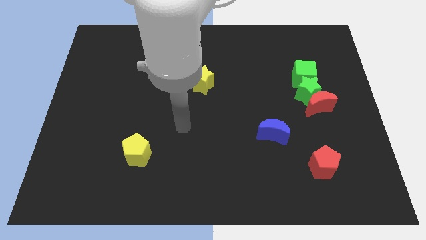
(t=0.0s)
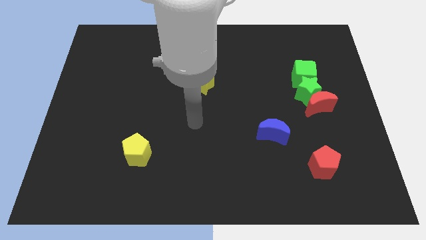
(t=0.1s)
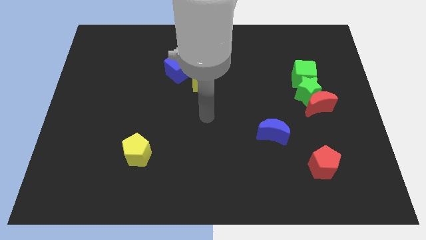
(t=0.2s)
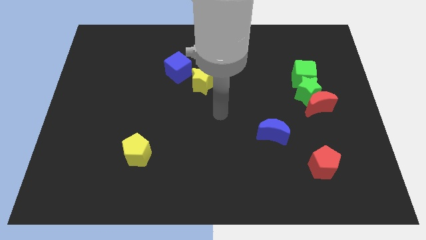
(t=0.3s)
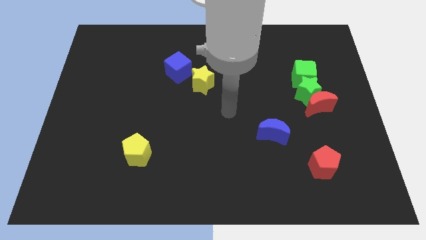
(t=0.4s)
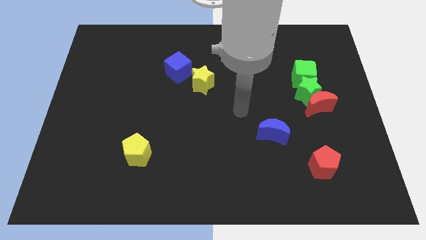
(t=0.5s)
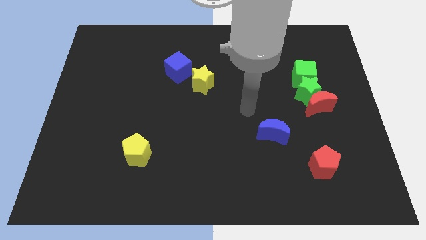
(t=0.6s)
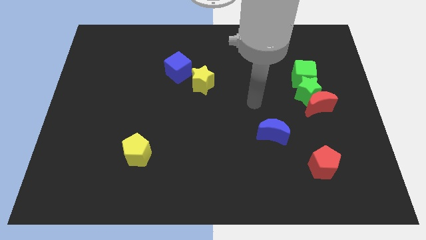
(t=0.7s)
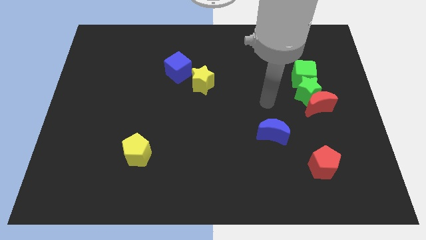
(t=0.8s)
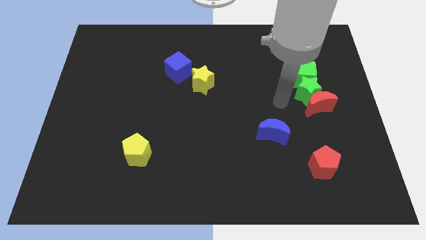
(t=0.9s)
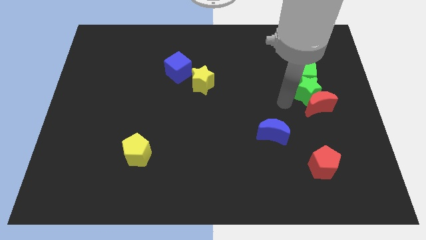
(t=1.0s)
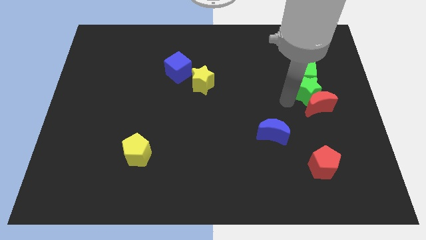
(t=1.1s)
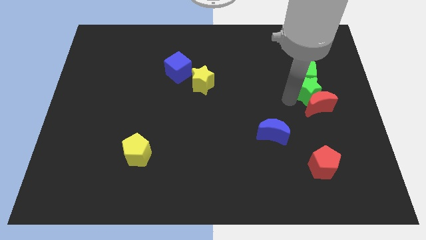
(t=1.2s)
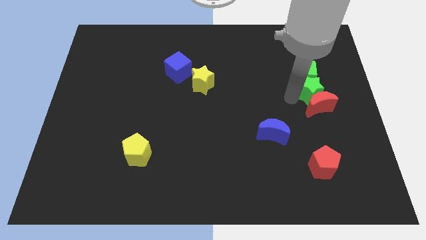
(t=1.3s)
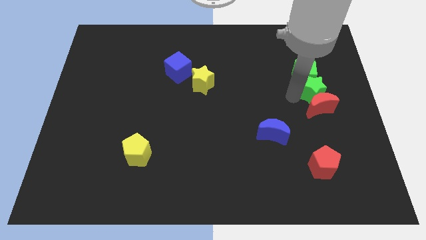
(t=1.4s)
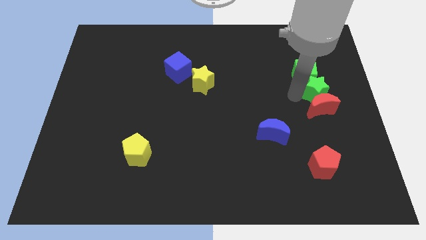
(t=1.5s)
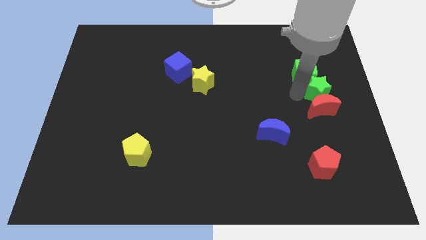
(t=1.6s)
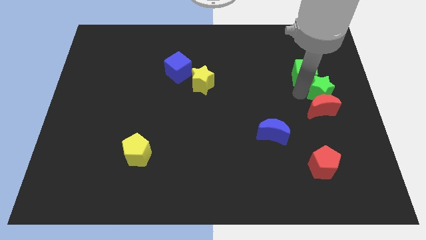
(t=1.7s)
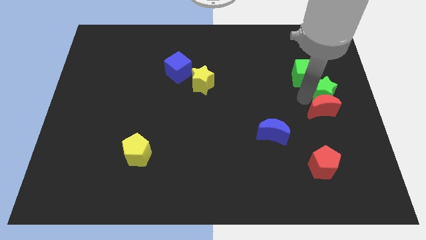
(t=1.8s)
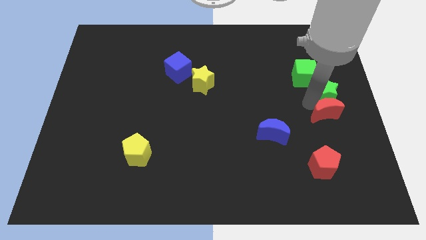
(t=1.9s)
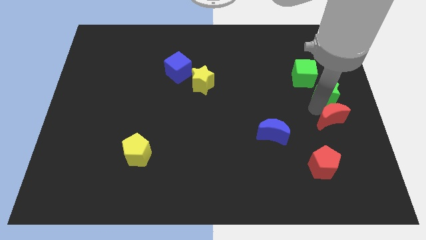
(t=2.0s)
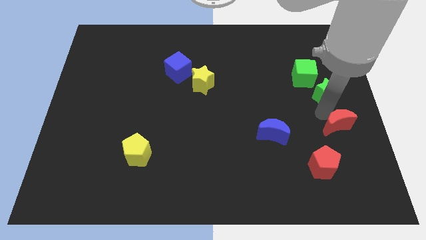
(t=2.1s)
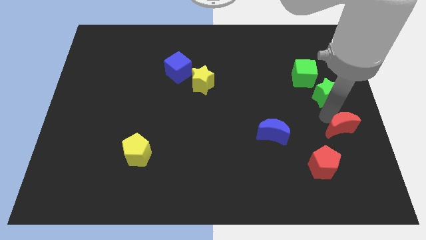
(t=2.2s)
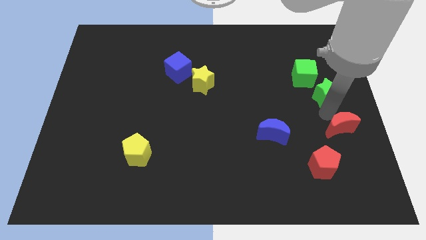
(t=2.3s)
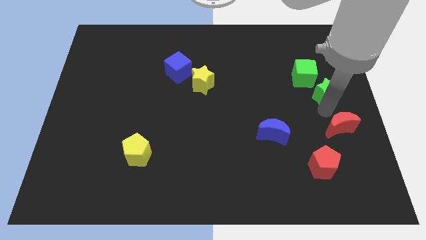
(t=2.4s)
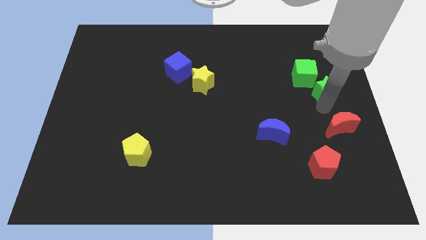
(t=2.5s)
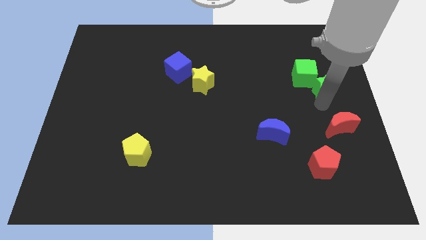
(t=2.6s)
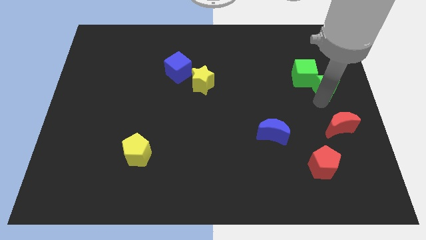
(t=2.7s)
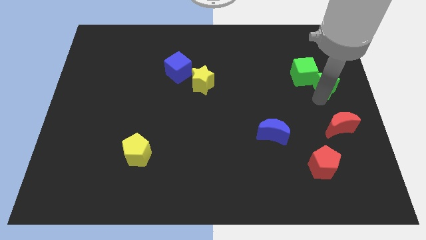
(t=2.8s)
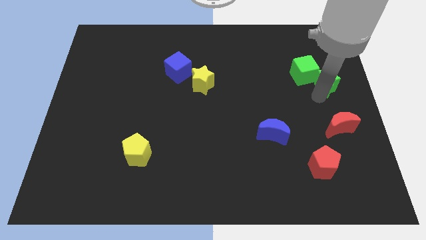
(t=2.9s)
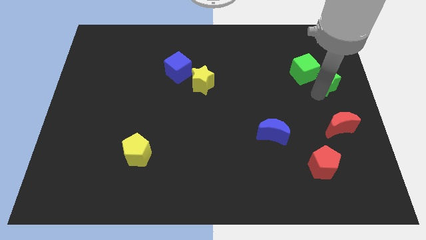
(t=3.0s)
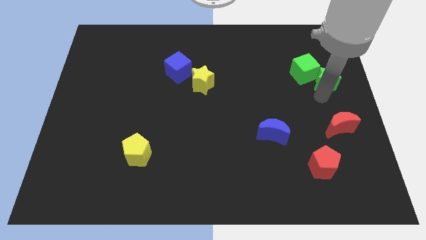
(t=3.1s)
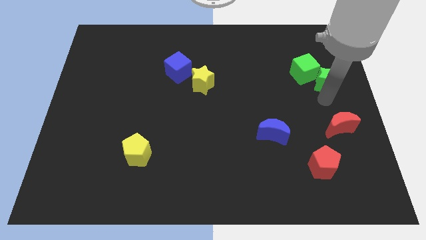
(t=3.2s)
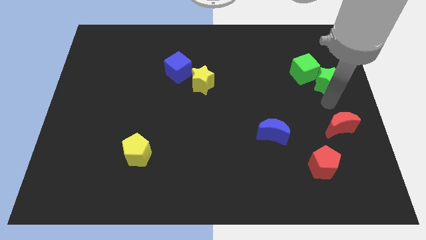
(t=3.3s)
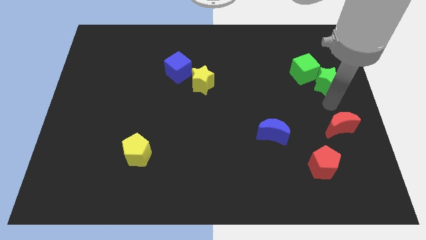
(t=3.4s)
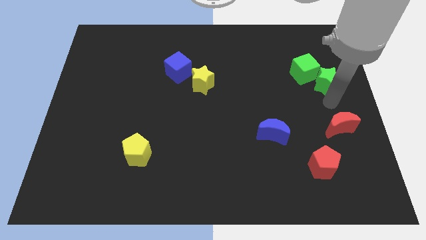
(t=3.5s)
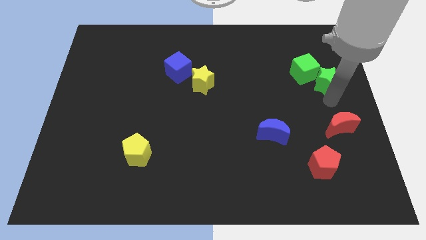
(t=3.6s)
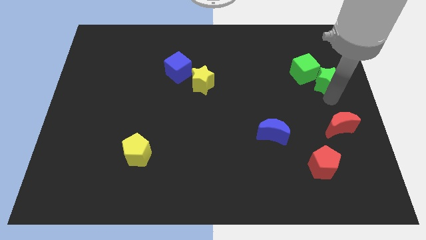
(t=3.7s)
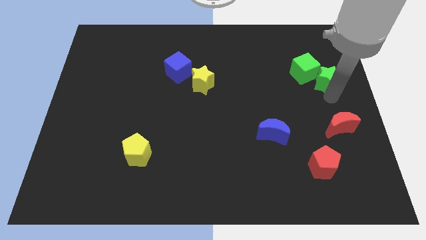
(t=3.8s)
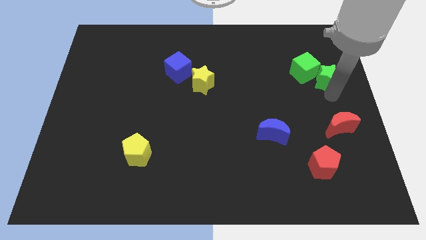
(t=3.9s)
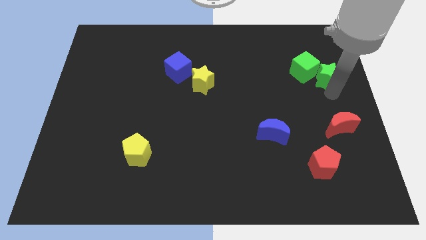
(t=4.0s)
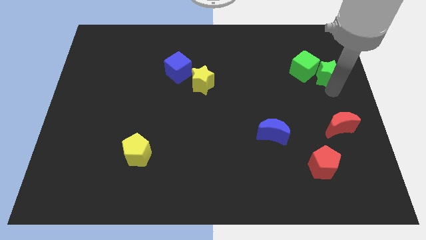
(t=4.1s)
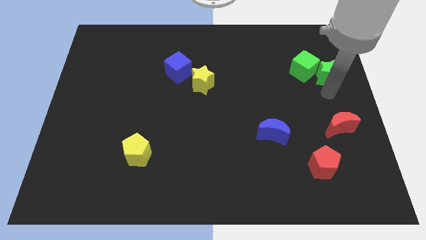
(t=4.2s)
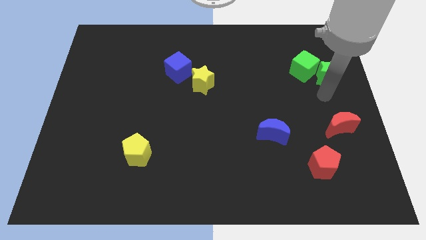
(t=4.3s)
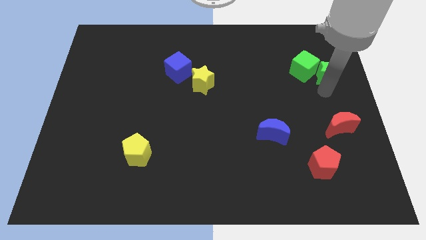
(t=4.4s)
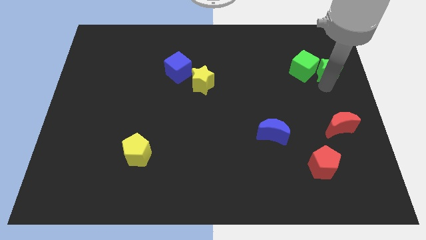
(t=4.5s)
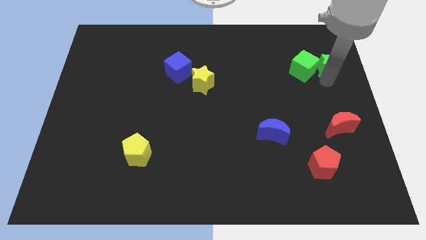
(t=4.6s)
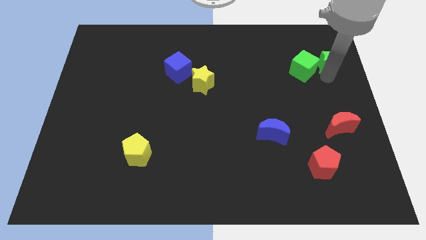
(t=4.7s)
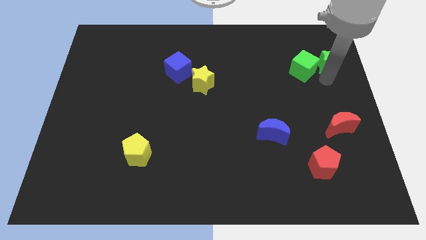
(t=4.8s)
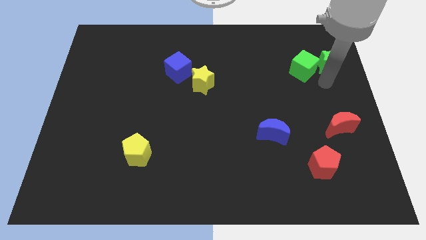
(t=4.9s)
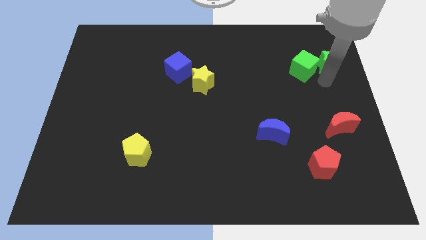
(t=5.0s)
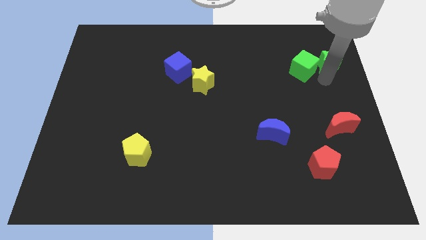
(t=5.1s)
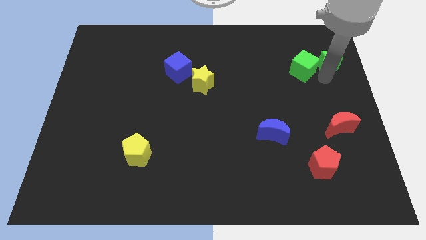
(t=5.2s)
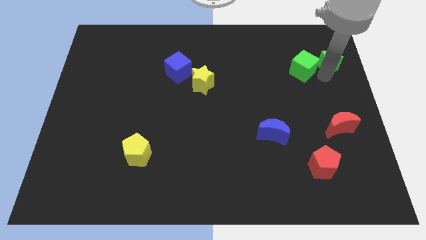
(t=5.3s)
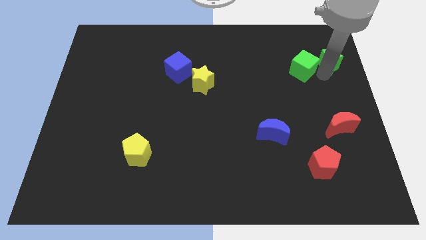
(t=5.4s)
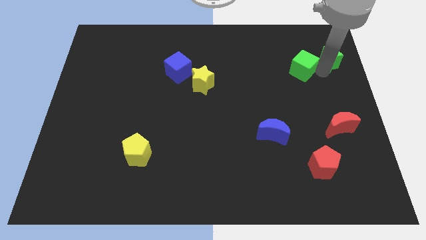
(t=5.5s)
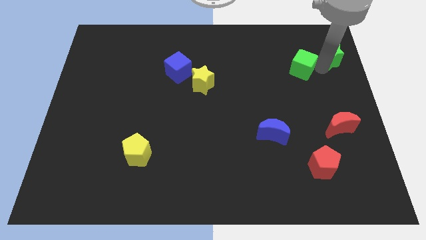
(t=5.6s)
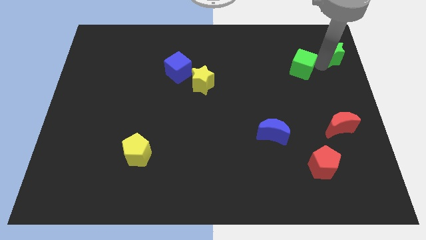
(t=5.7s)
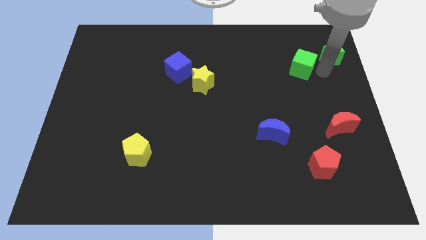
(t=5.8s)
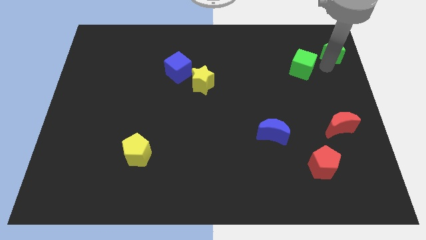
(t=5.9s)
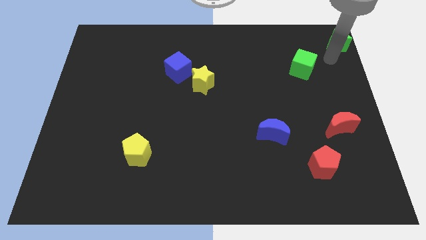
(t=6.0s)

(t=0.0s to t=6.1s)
put the green star to the top right of the board

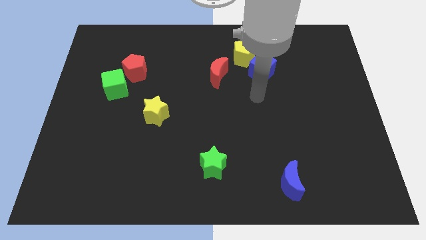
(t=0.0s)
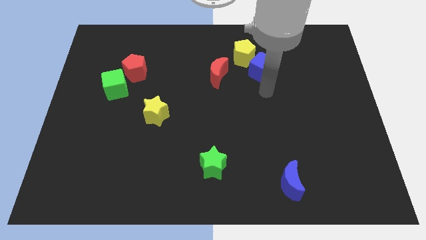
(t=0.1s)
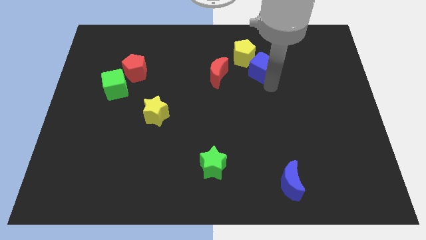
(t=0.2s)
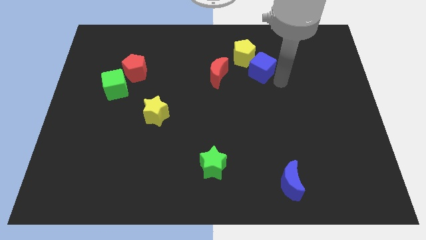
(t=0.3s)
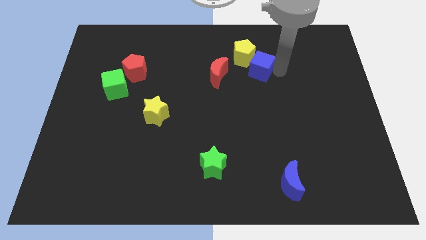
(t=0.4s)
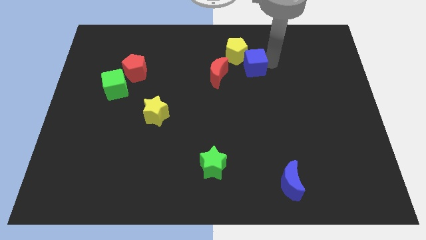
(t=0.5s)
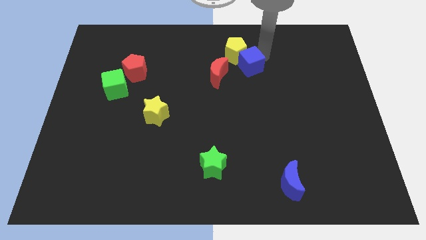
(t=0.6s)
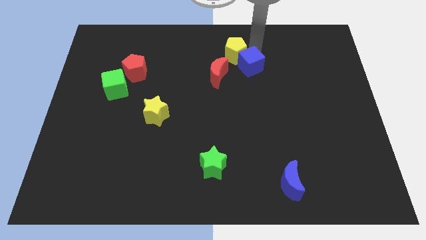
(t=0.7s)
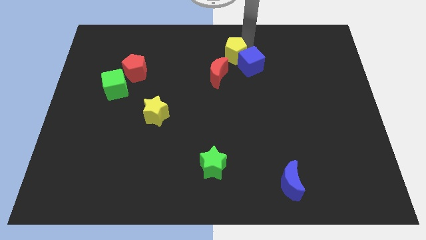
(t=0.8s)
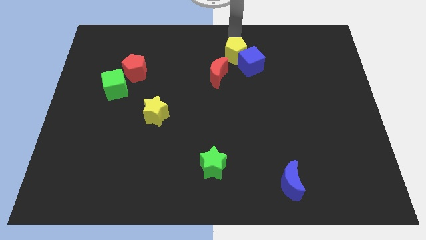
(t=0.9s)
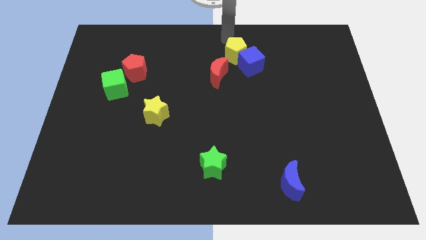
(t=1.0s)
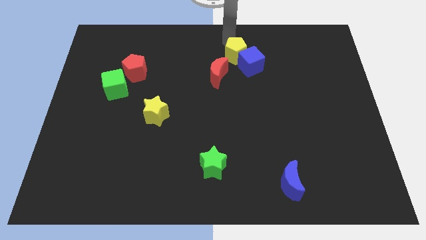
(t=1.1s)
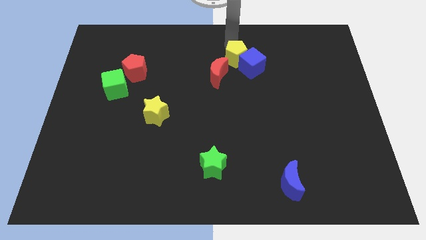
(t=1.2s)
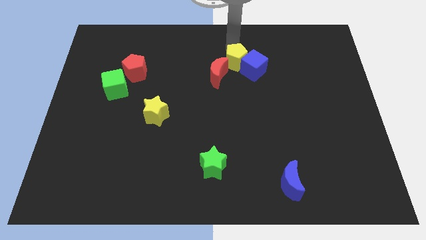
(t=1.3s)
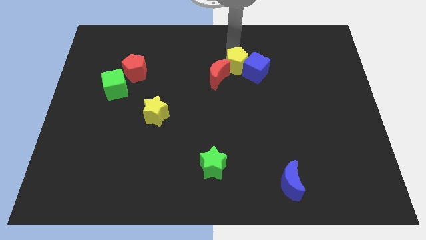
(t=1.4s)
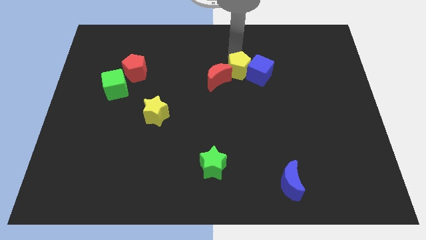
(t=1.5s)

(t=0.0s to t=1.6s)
slide the yellow pentagon to the center
